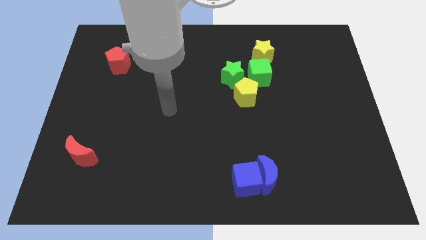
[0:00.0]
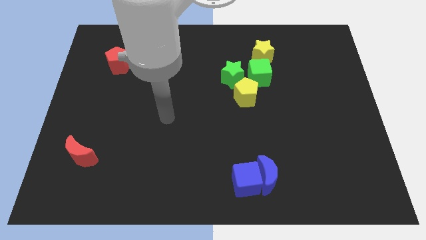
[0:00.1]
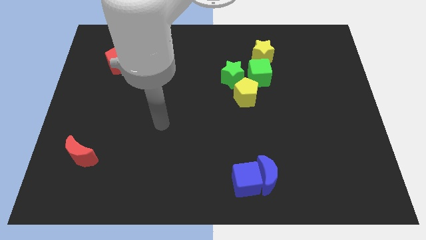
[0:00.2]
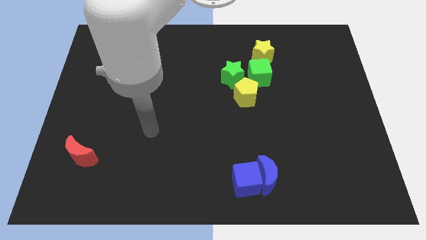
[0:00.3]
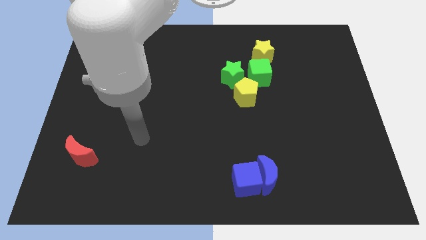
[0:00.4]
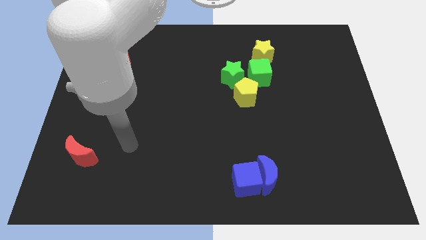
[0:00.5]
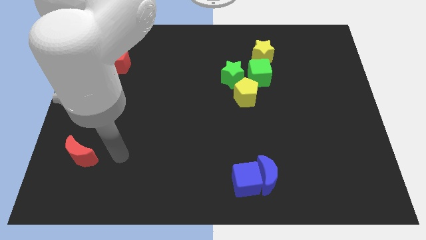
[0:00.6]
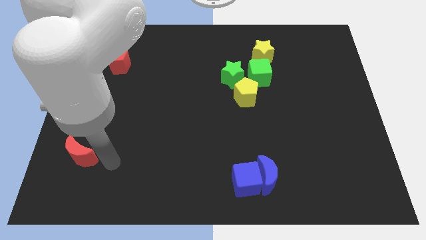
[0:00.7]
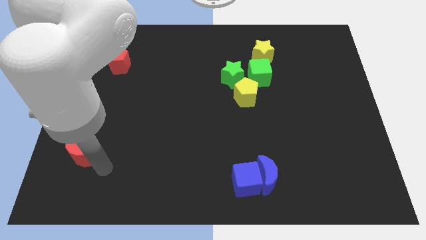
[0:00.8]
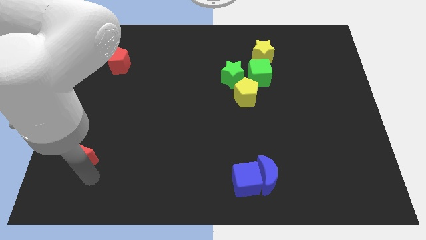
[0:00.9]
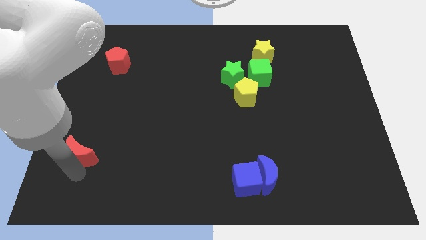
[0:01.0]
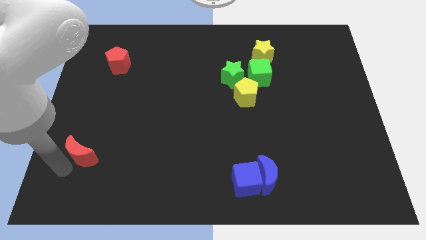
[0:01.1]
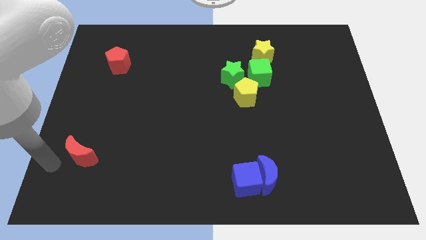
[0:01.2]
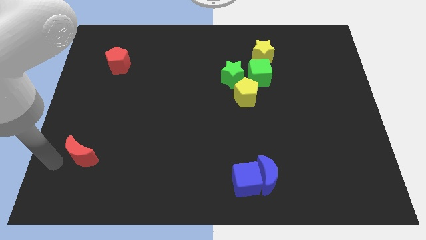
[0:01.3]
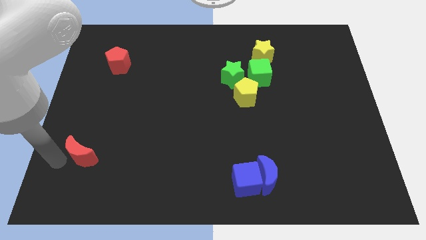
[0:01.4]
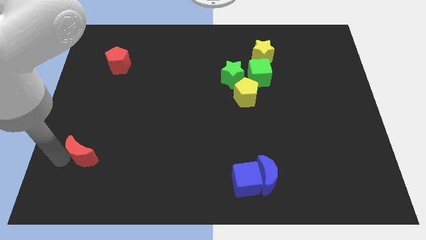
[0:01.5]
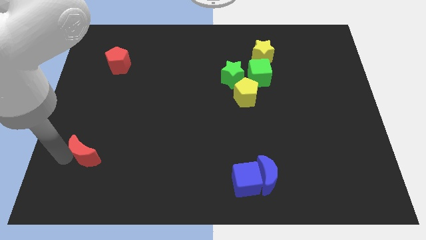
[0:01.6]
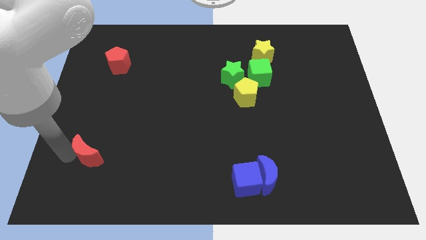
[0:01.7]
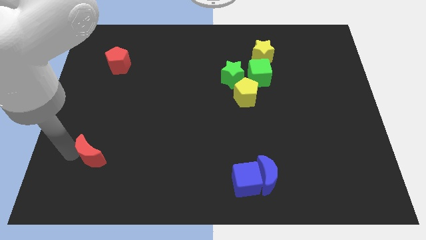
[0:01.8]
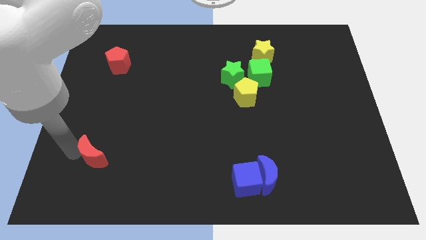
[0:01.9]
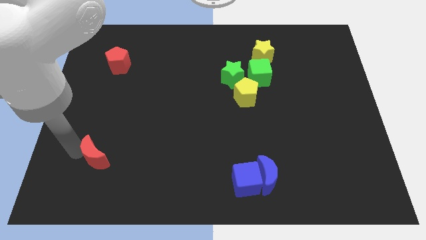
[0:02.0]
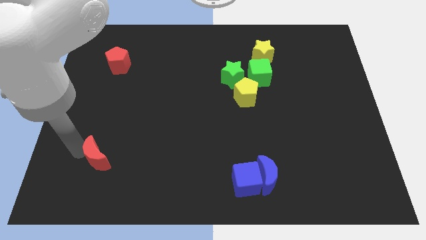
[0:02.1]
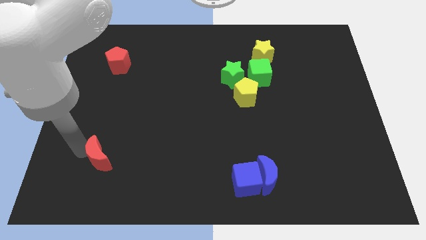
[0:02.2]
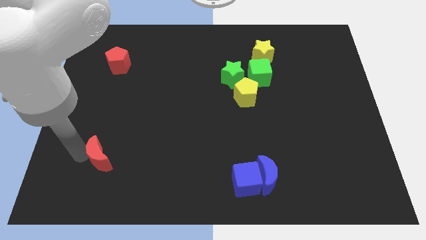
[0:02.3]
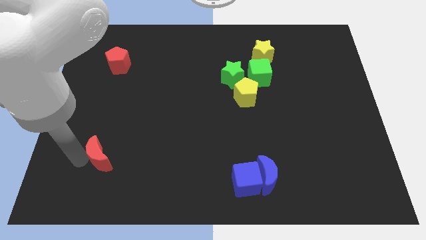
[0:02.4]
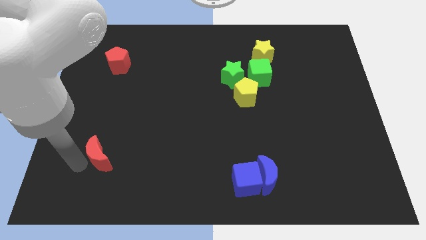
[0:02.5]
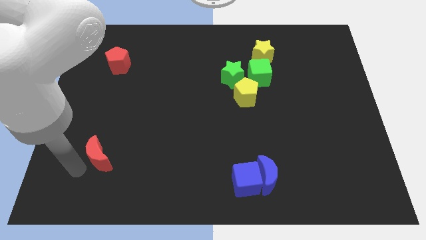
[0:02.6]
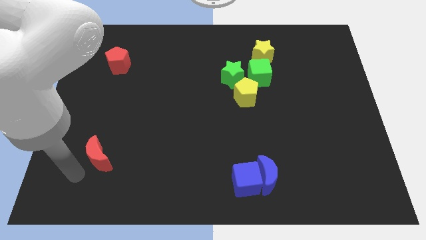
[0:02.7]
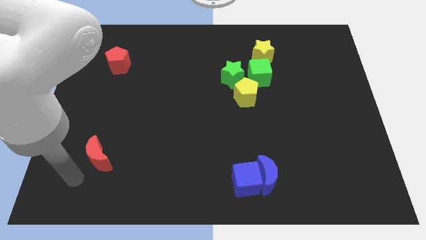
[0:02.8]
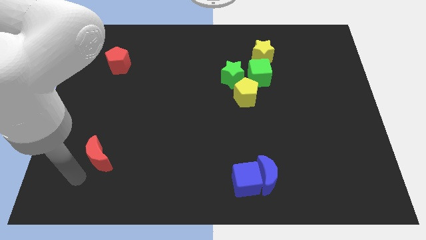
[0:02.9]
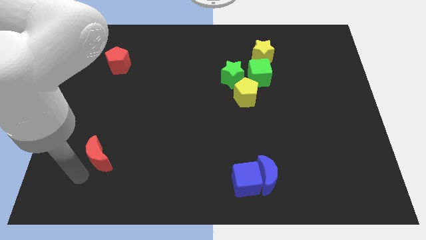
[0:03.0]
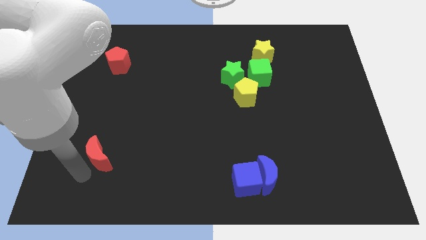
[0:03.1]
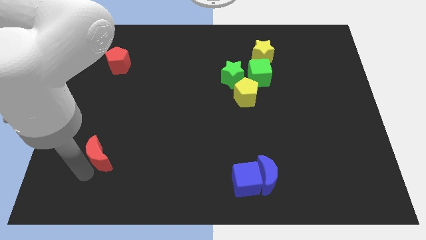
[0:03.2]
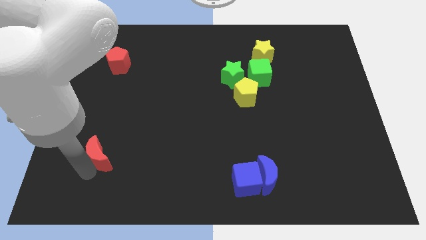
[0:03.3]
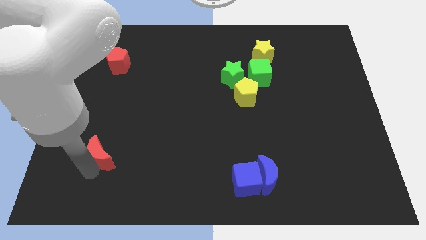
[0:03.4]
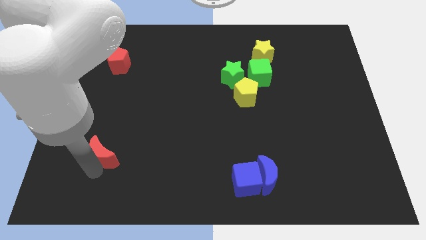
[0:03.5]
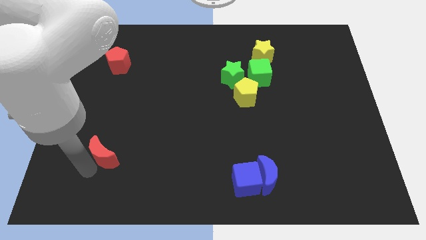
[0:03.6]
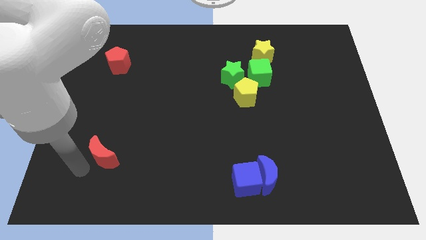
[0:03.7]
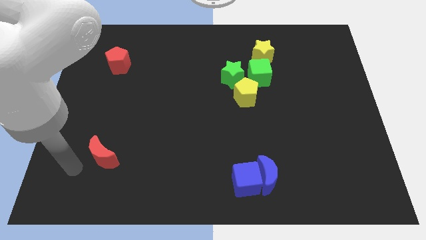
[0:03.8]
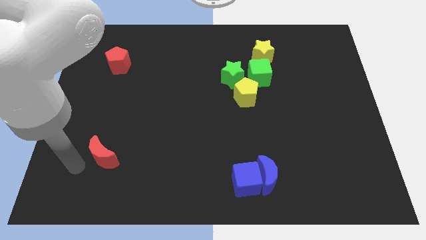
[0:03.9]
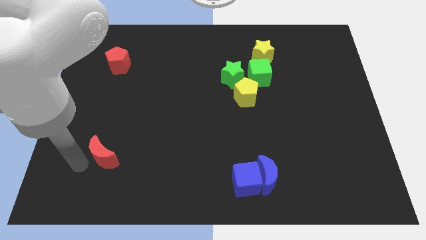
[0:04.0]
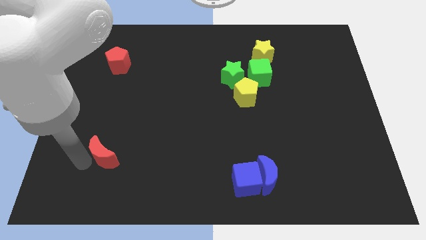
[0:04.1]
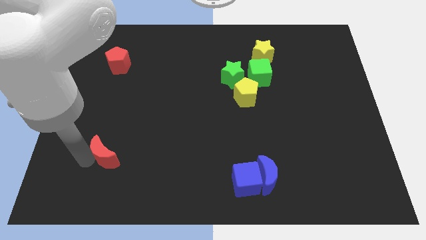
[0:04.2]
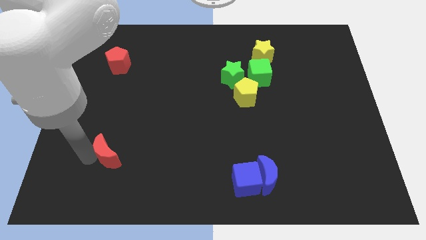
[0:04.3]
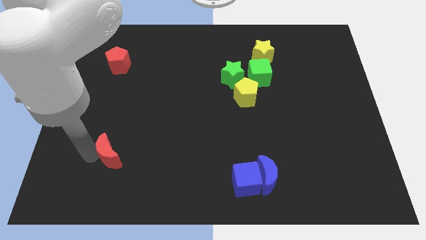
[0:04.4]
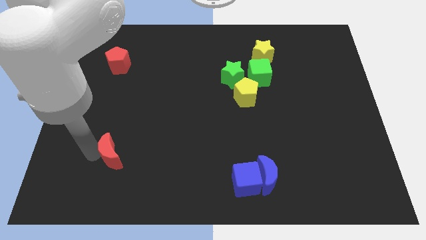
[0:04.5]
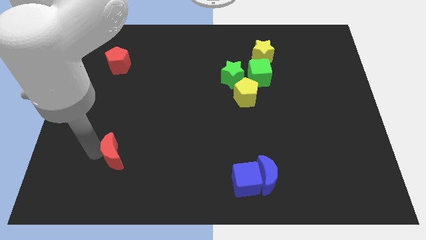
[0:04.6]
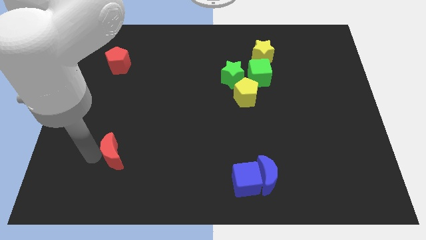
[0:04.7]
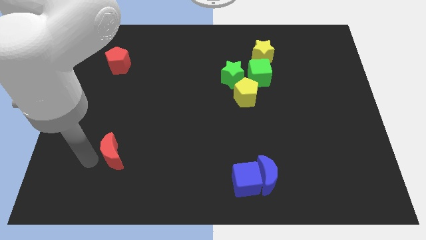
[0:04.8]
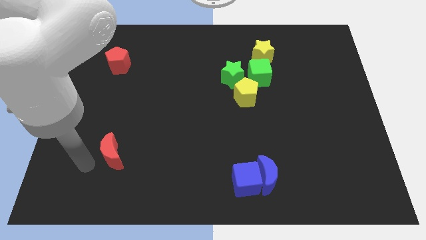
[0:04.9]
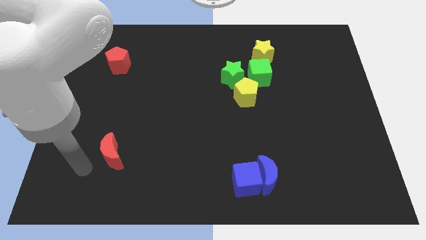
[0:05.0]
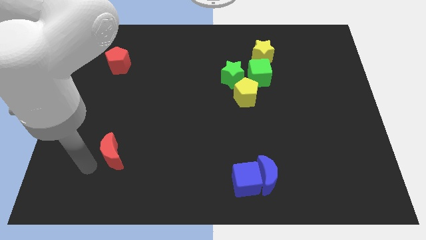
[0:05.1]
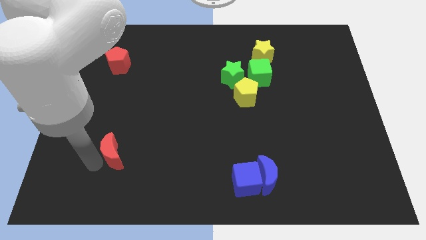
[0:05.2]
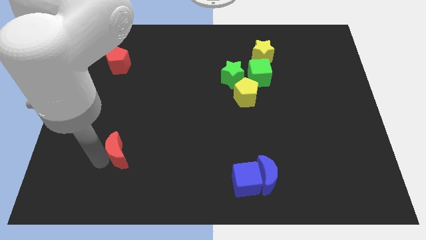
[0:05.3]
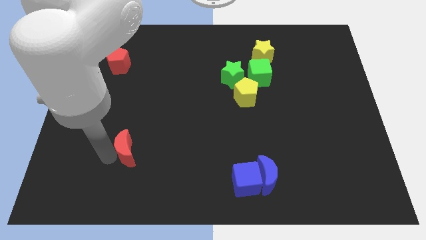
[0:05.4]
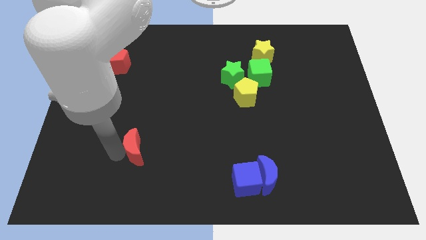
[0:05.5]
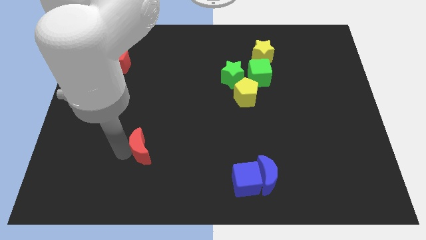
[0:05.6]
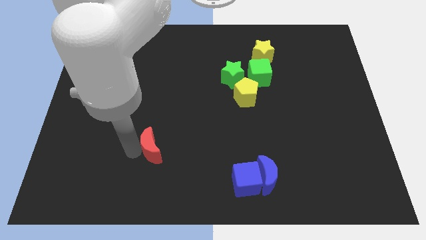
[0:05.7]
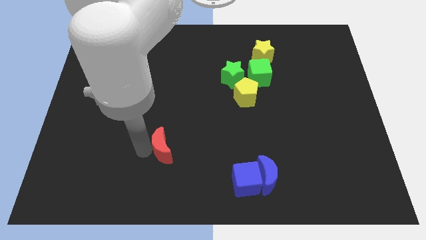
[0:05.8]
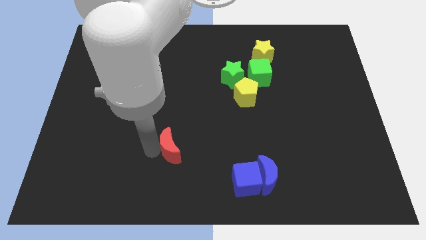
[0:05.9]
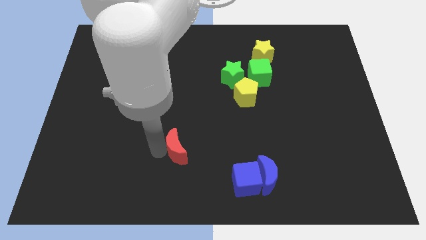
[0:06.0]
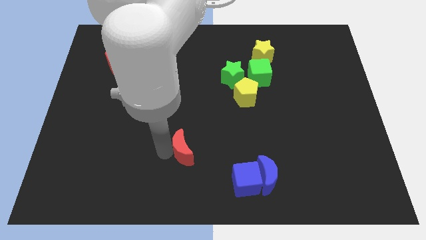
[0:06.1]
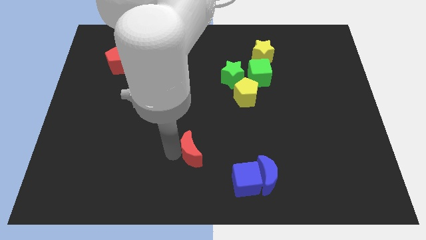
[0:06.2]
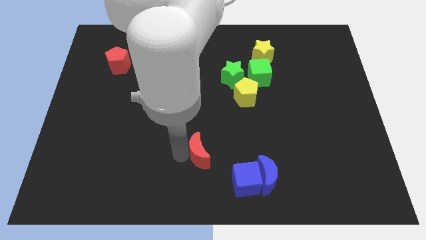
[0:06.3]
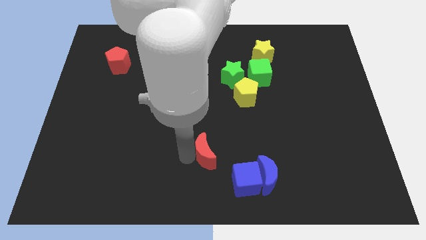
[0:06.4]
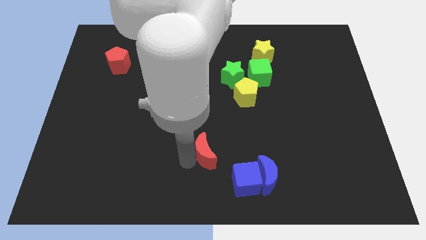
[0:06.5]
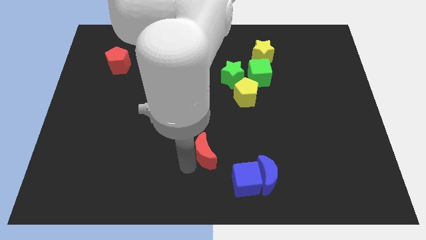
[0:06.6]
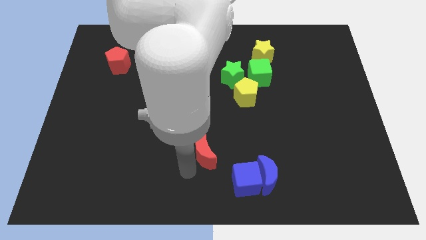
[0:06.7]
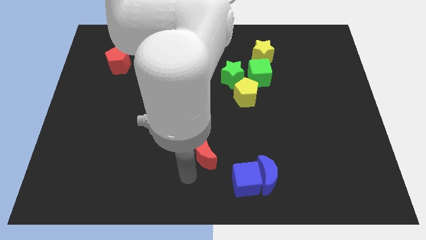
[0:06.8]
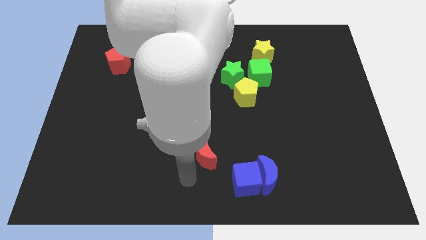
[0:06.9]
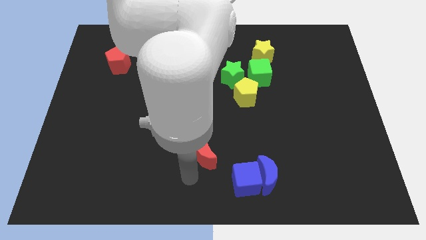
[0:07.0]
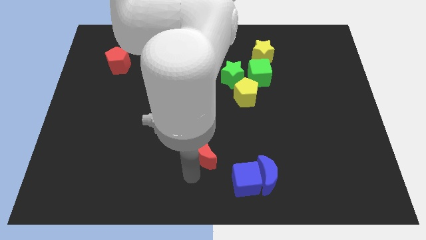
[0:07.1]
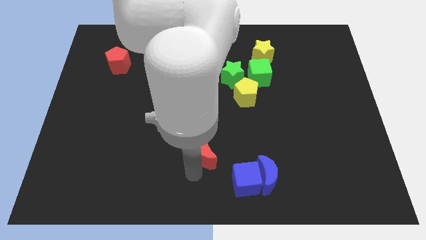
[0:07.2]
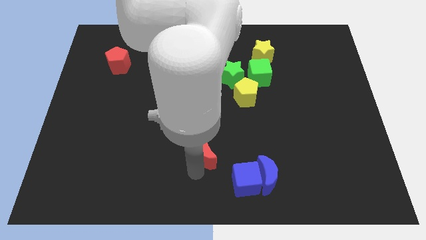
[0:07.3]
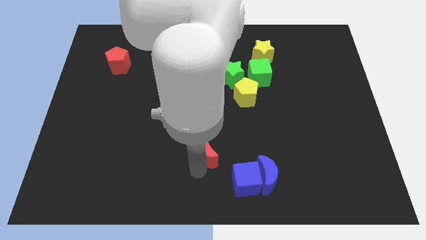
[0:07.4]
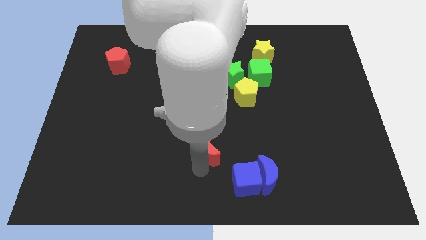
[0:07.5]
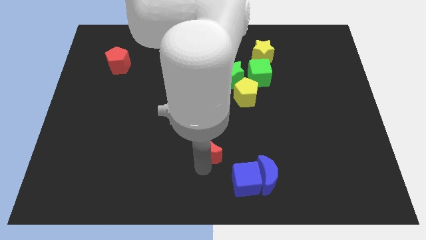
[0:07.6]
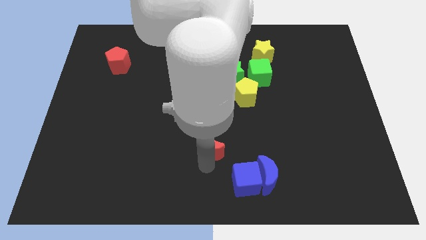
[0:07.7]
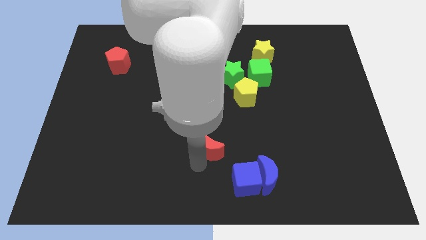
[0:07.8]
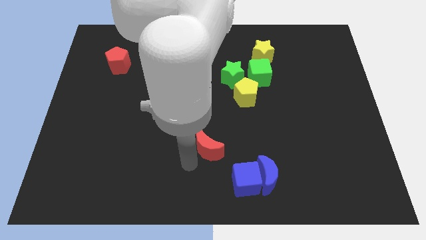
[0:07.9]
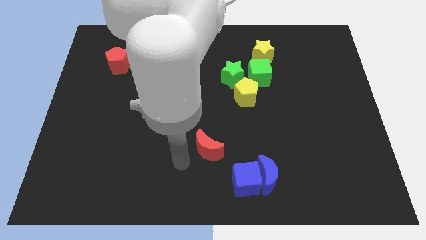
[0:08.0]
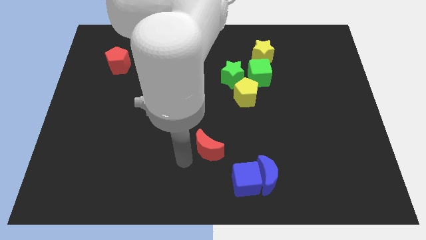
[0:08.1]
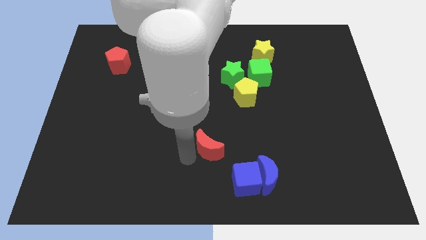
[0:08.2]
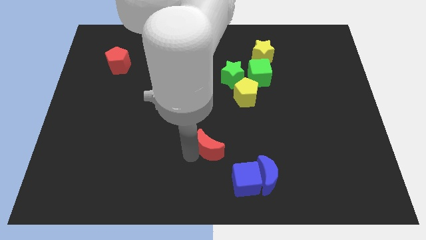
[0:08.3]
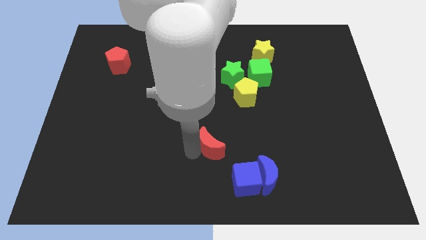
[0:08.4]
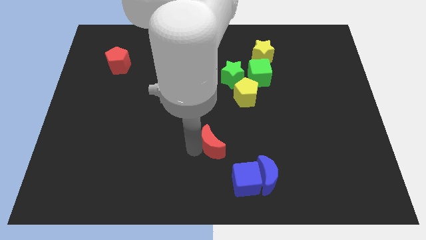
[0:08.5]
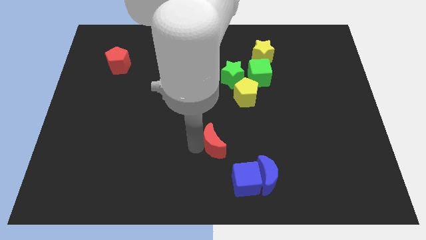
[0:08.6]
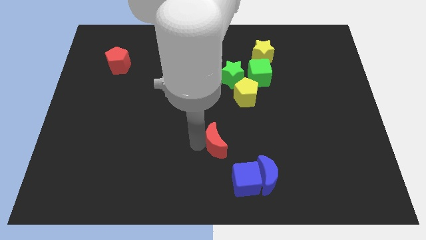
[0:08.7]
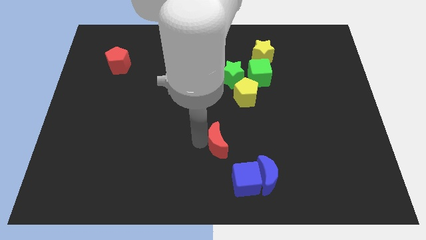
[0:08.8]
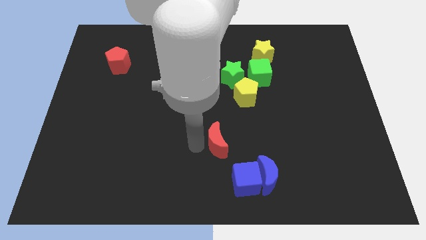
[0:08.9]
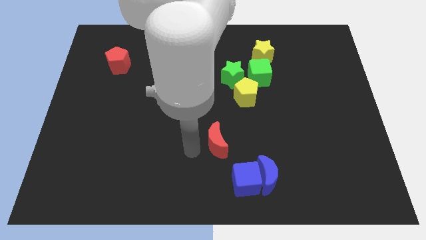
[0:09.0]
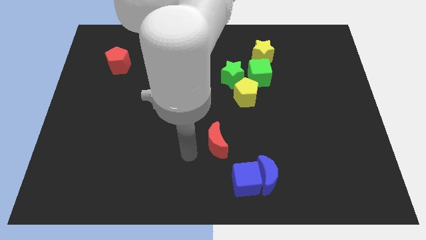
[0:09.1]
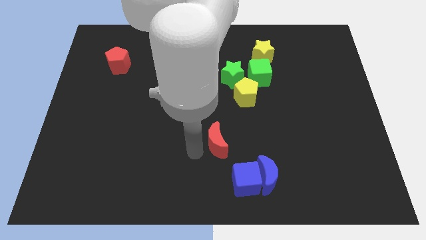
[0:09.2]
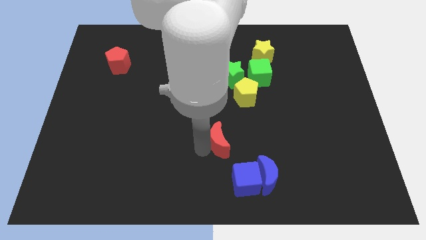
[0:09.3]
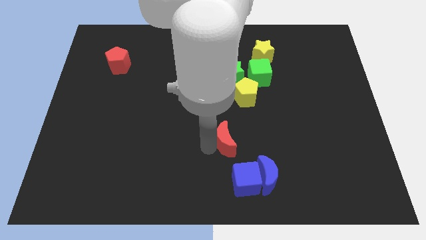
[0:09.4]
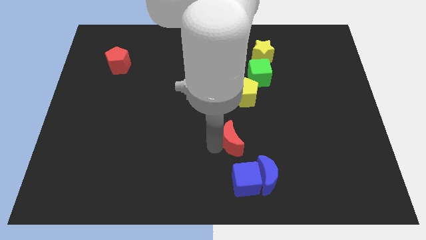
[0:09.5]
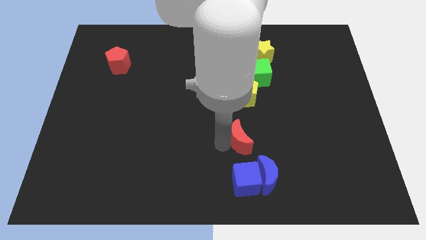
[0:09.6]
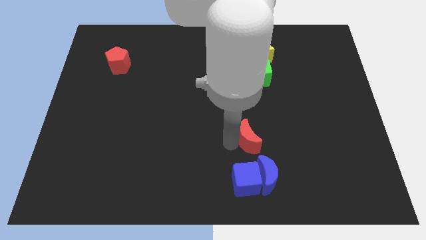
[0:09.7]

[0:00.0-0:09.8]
put the red moon above the blue moon
